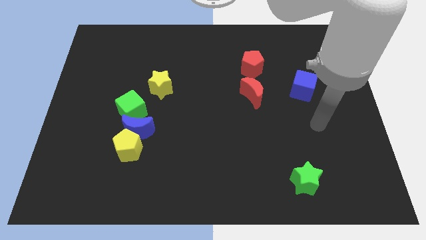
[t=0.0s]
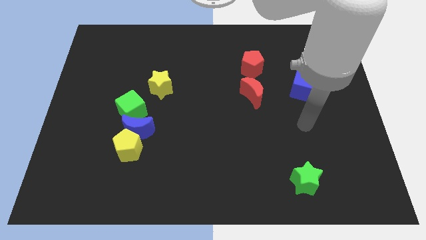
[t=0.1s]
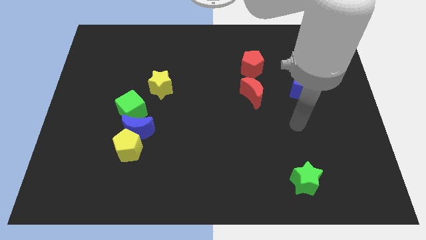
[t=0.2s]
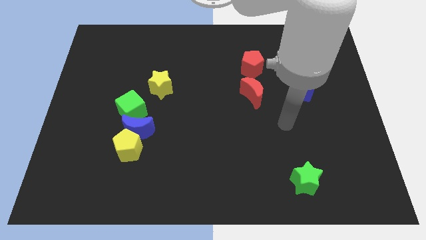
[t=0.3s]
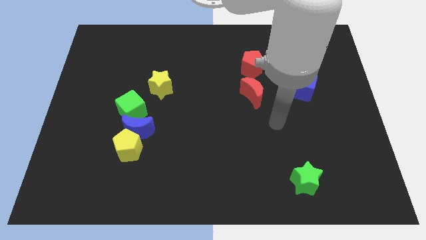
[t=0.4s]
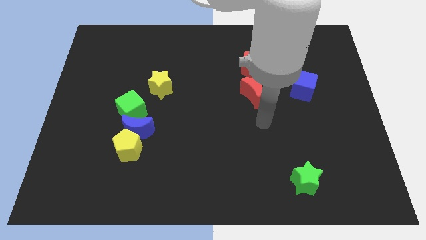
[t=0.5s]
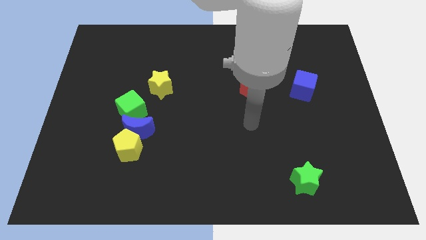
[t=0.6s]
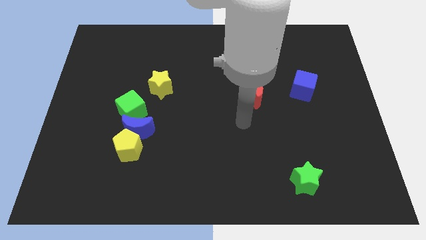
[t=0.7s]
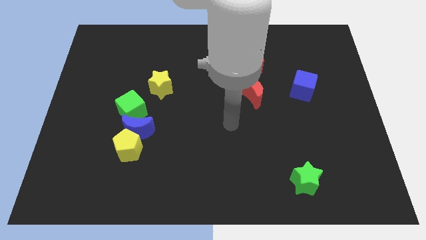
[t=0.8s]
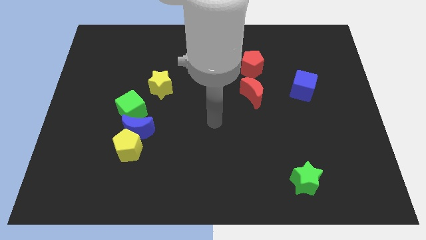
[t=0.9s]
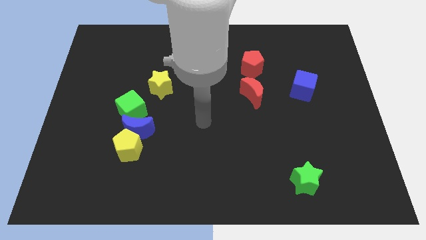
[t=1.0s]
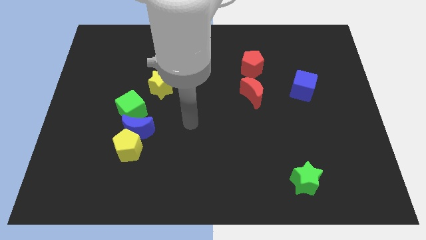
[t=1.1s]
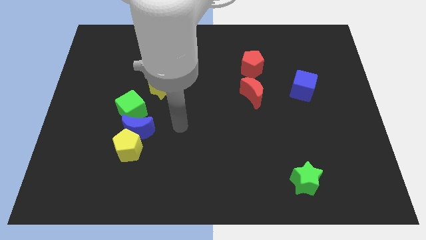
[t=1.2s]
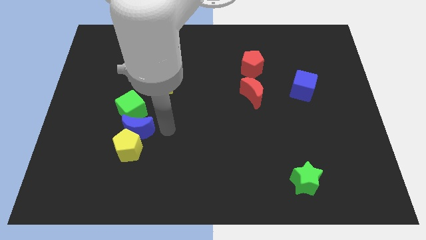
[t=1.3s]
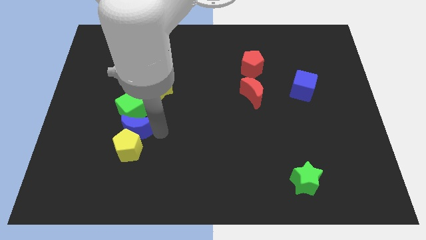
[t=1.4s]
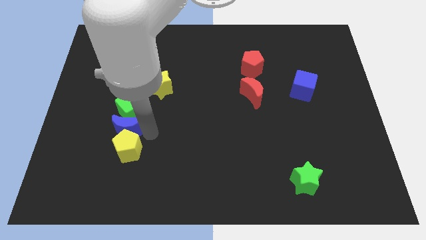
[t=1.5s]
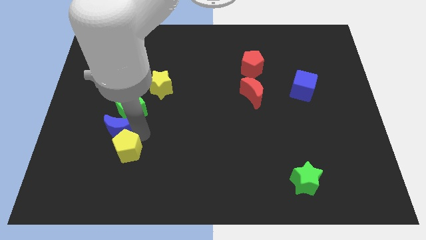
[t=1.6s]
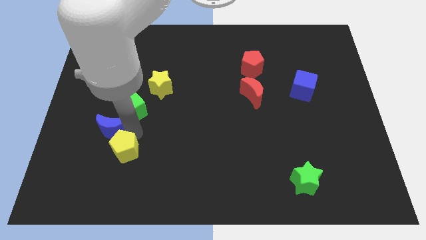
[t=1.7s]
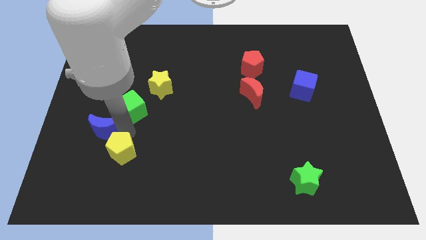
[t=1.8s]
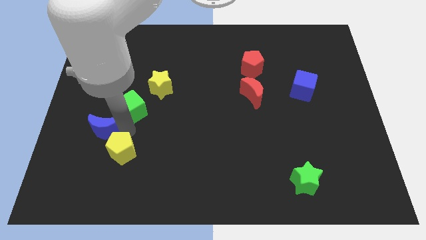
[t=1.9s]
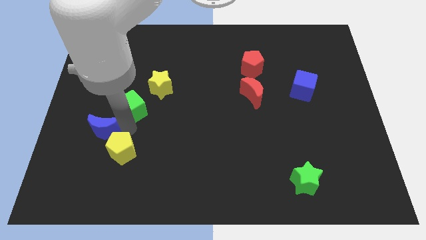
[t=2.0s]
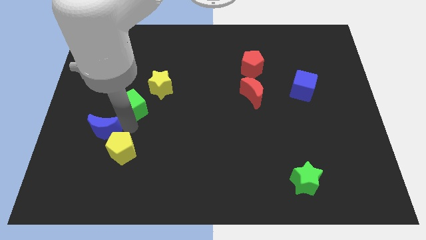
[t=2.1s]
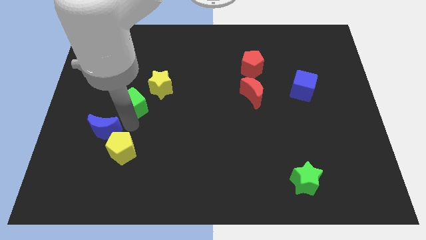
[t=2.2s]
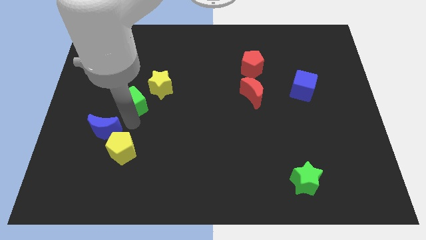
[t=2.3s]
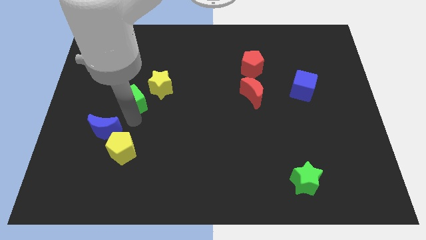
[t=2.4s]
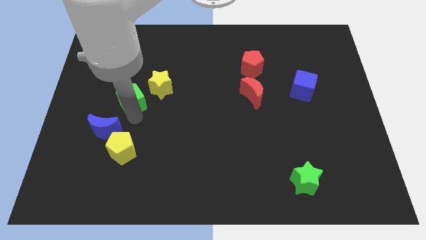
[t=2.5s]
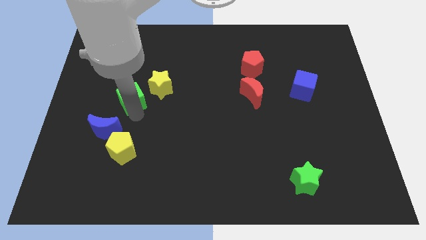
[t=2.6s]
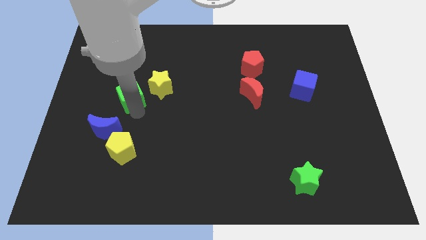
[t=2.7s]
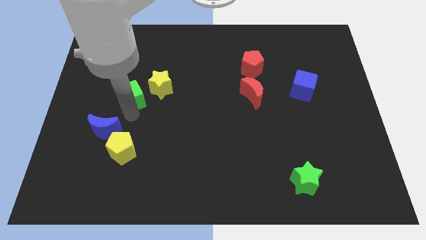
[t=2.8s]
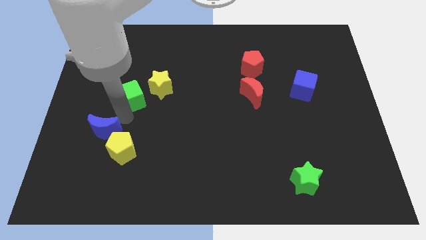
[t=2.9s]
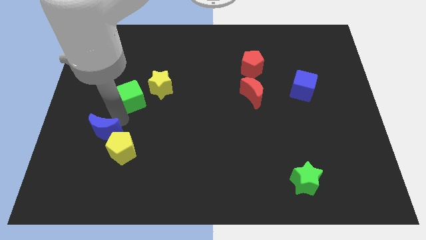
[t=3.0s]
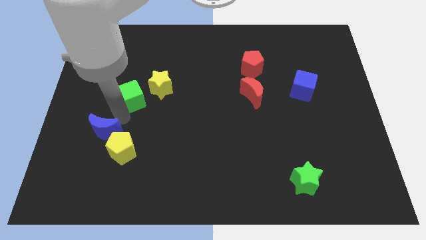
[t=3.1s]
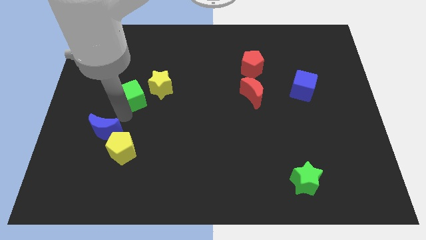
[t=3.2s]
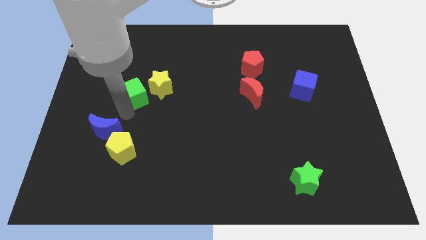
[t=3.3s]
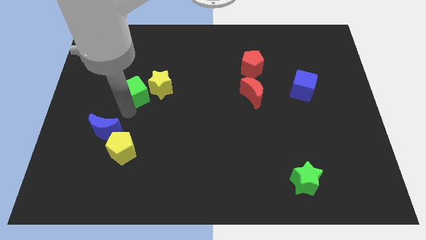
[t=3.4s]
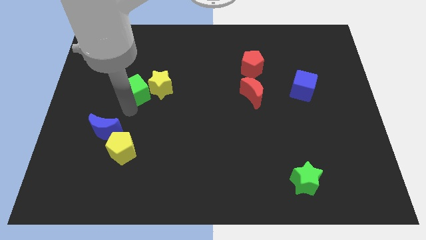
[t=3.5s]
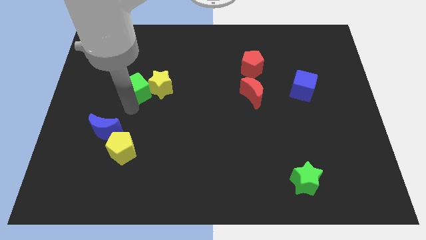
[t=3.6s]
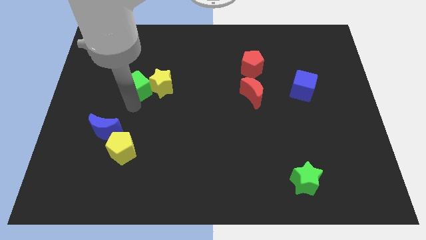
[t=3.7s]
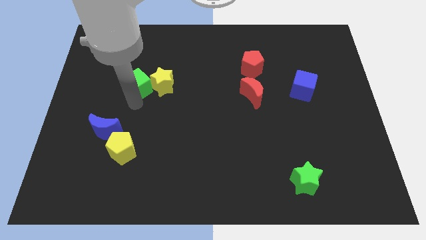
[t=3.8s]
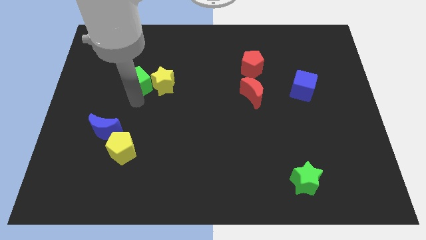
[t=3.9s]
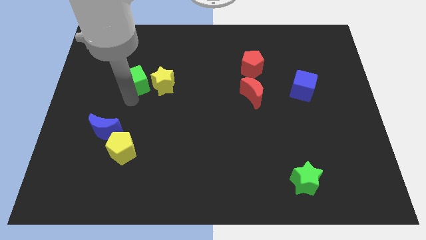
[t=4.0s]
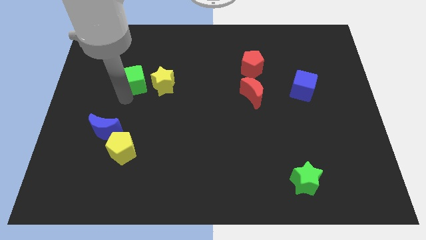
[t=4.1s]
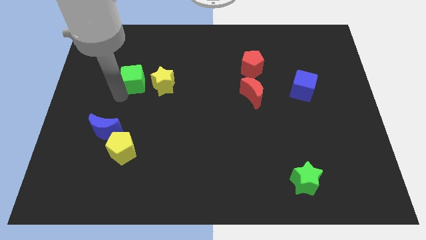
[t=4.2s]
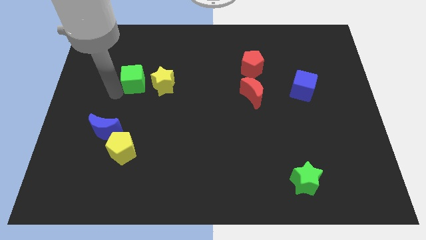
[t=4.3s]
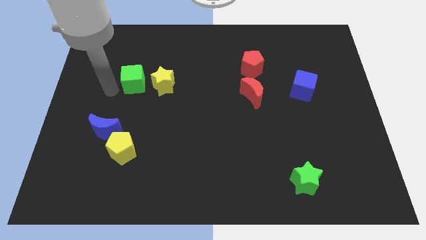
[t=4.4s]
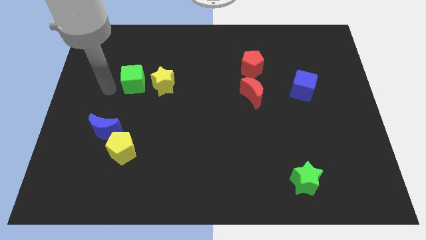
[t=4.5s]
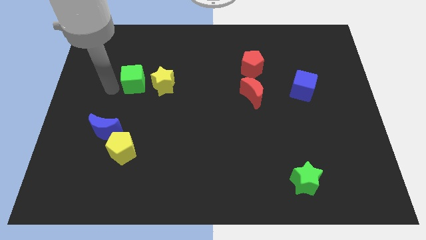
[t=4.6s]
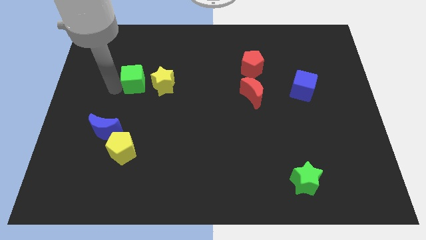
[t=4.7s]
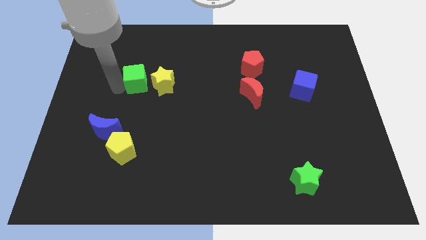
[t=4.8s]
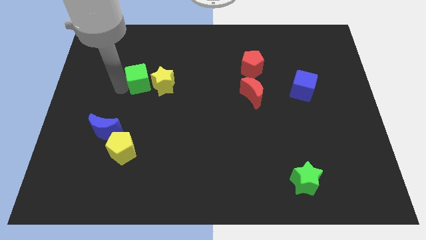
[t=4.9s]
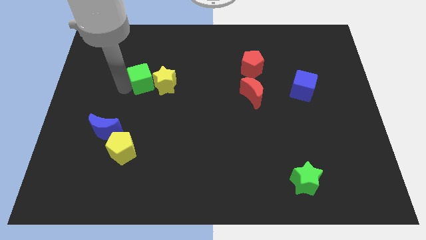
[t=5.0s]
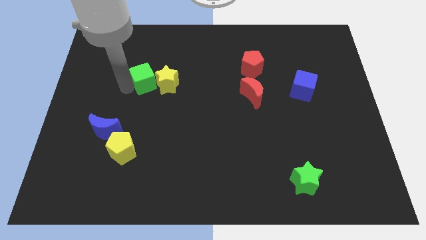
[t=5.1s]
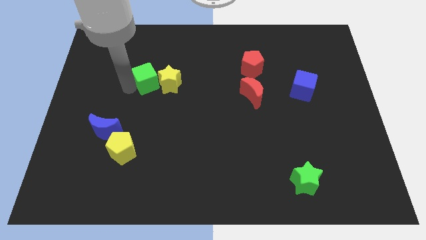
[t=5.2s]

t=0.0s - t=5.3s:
slightly slide the green cube diagonally up and to the right

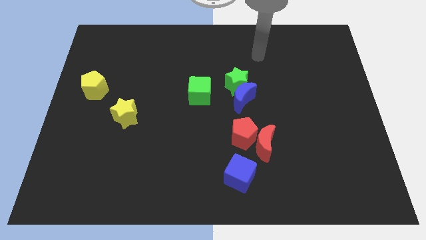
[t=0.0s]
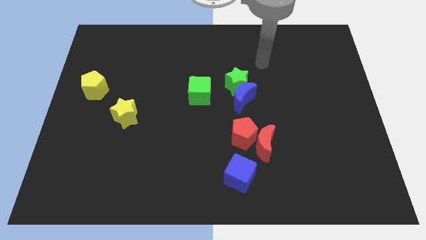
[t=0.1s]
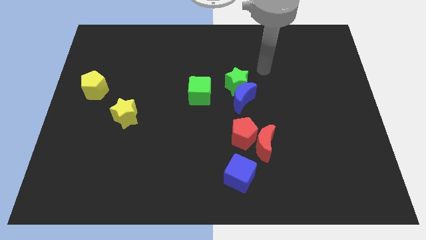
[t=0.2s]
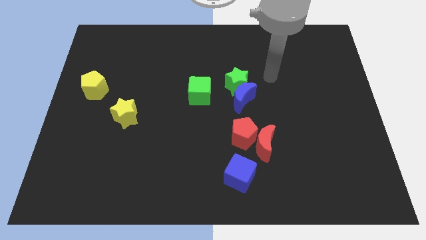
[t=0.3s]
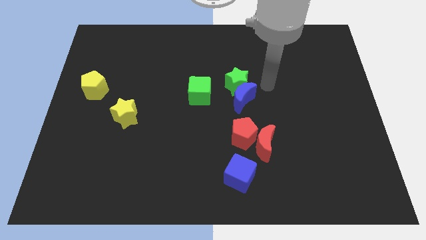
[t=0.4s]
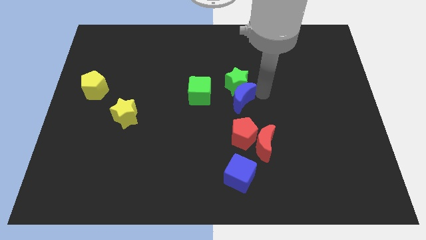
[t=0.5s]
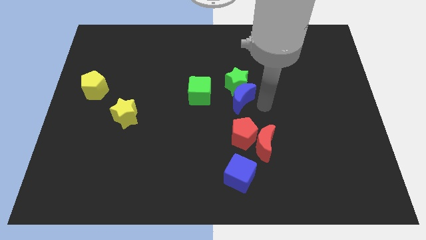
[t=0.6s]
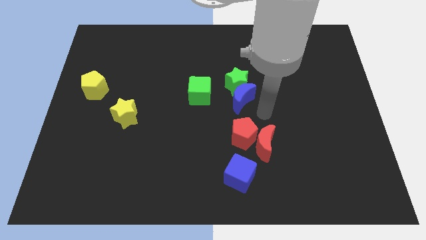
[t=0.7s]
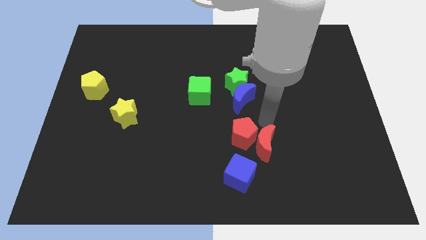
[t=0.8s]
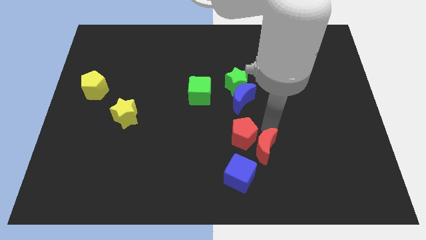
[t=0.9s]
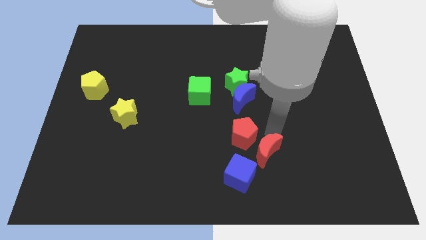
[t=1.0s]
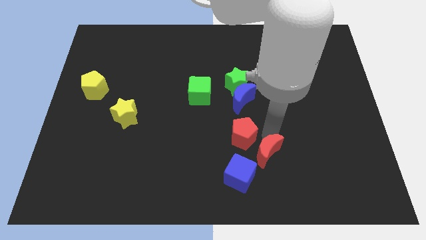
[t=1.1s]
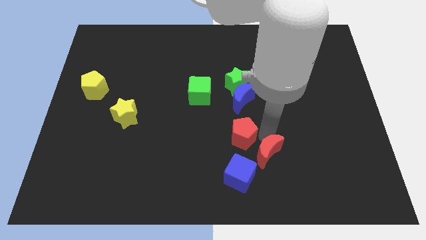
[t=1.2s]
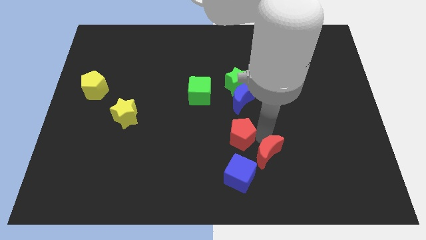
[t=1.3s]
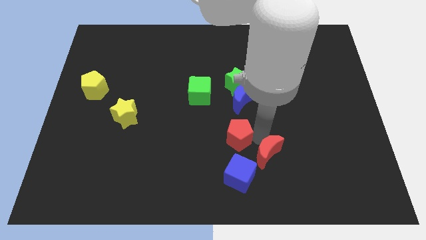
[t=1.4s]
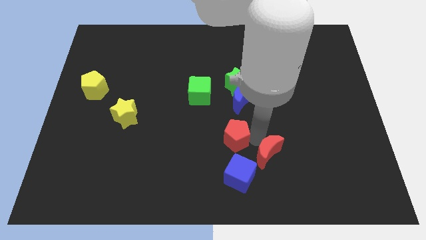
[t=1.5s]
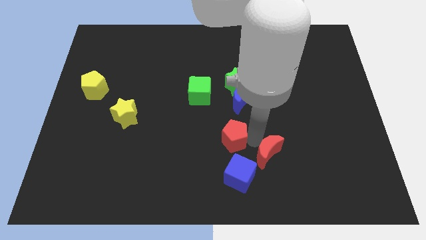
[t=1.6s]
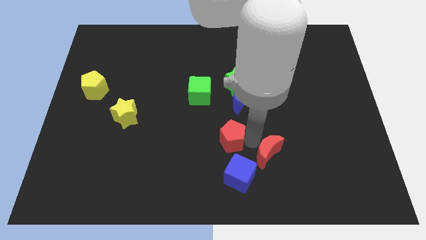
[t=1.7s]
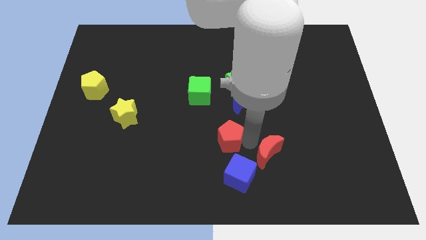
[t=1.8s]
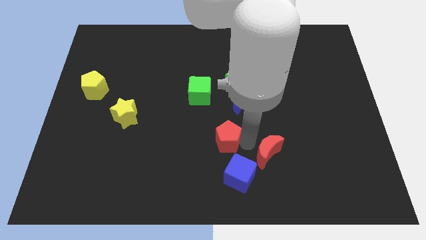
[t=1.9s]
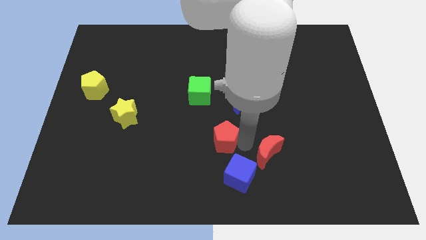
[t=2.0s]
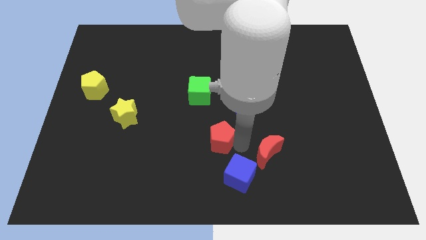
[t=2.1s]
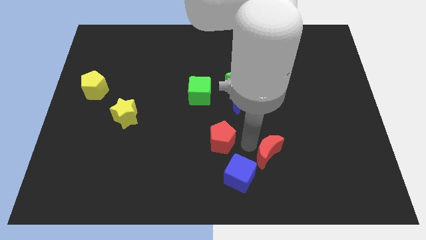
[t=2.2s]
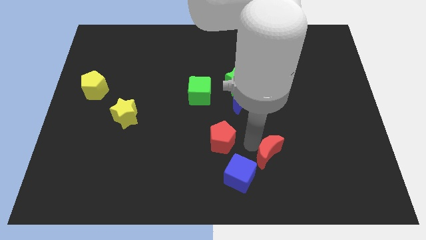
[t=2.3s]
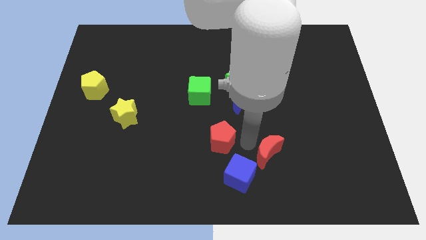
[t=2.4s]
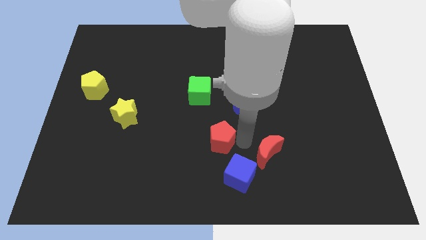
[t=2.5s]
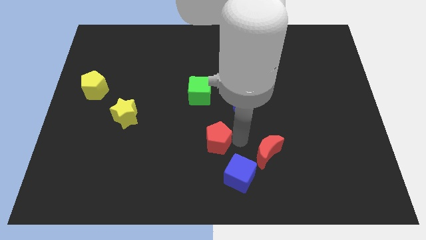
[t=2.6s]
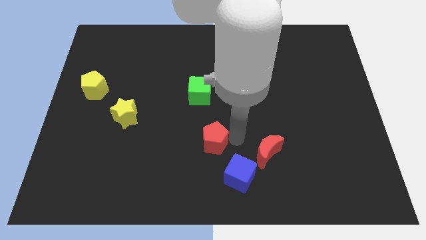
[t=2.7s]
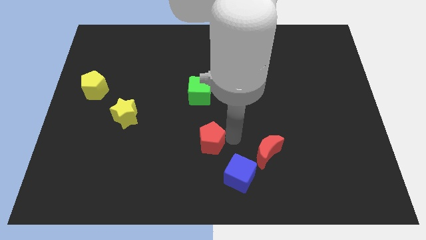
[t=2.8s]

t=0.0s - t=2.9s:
slightly push the red pentagon left
